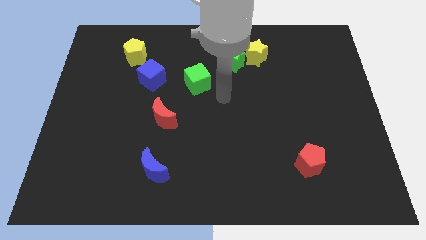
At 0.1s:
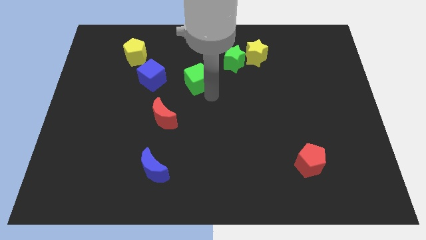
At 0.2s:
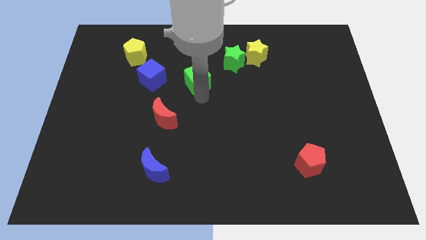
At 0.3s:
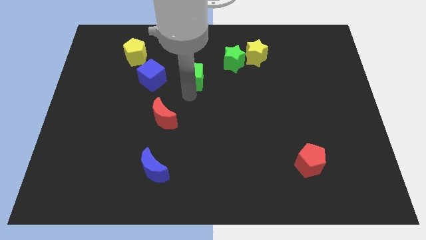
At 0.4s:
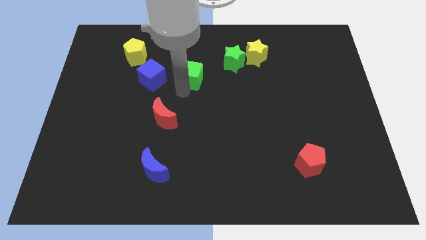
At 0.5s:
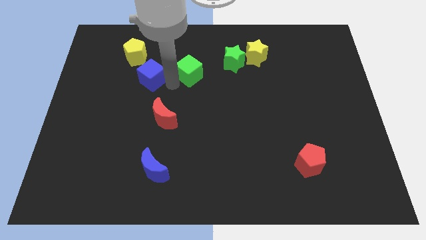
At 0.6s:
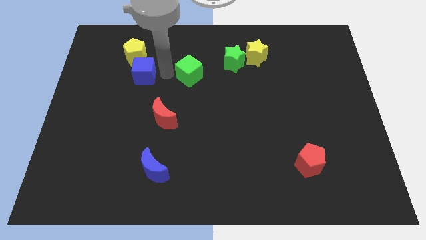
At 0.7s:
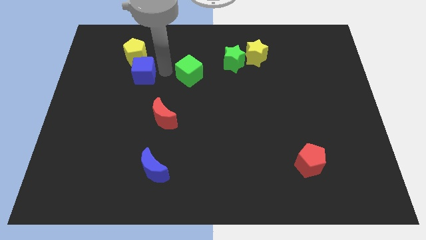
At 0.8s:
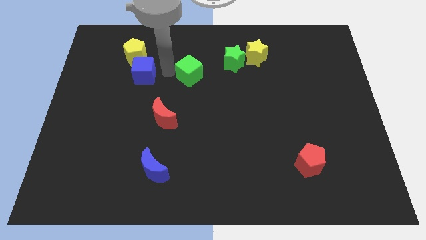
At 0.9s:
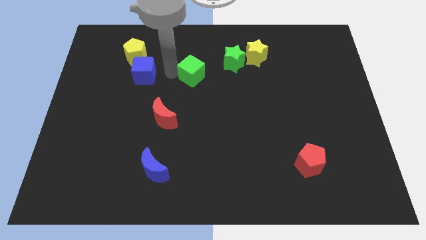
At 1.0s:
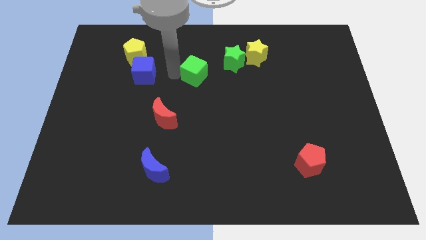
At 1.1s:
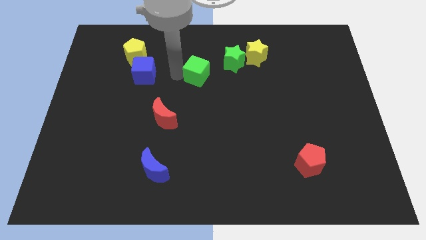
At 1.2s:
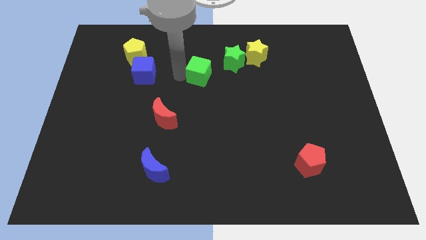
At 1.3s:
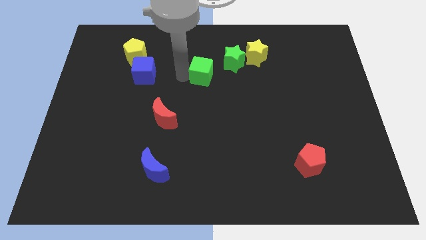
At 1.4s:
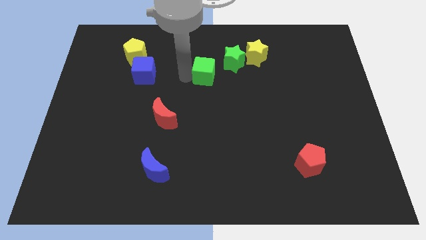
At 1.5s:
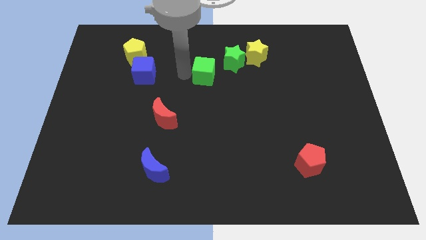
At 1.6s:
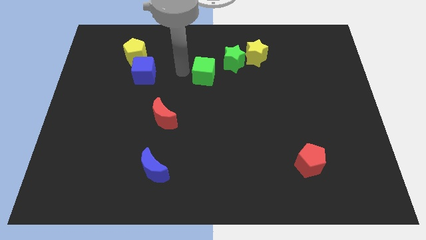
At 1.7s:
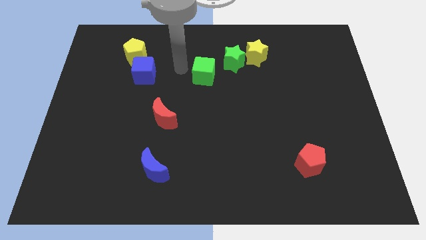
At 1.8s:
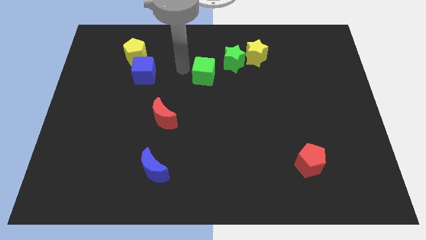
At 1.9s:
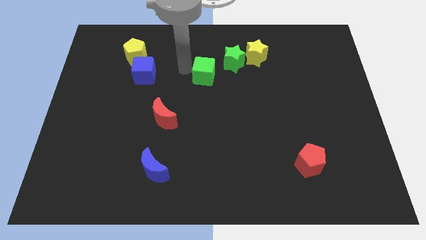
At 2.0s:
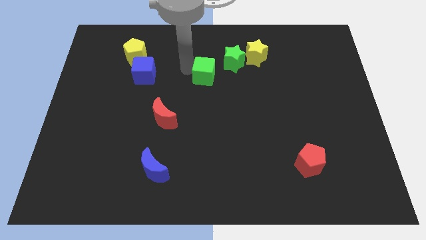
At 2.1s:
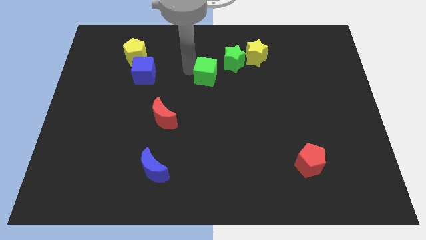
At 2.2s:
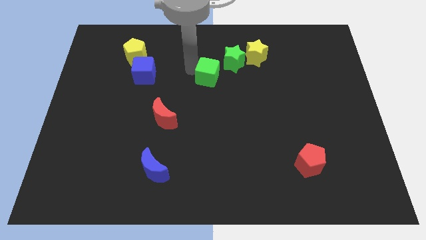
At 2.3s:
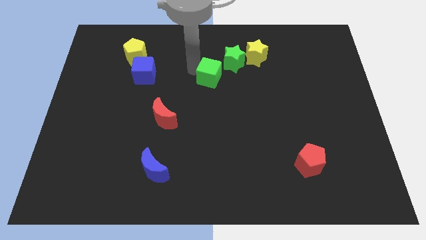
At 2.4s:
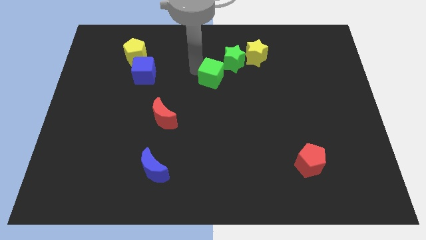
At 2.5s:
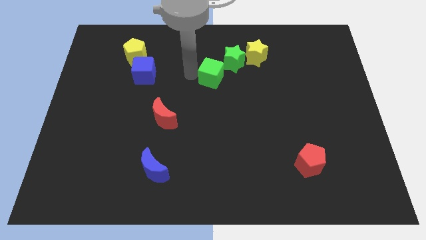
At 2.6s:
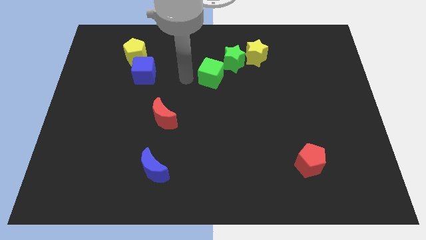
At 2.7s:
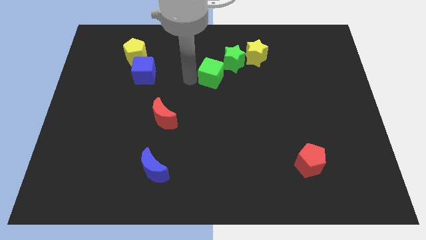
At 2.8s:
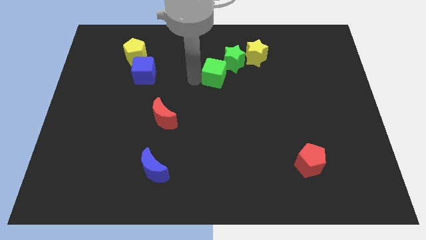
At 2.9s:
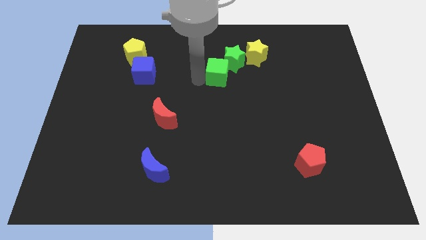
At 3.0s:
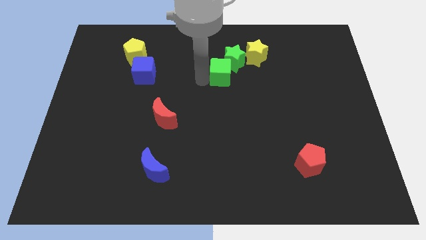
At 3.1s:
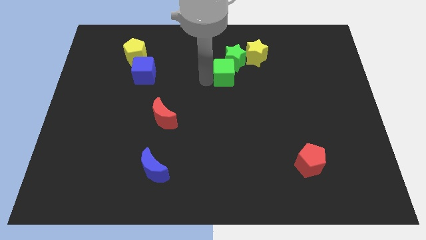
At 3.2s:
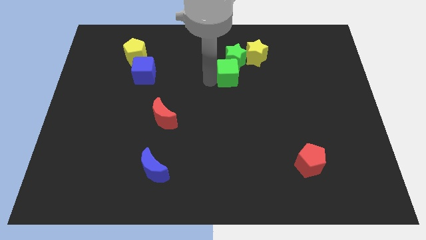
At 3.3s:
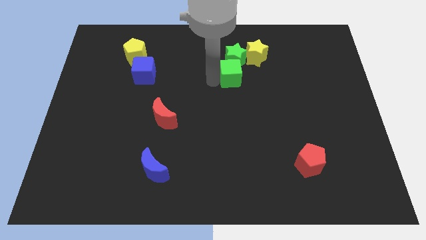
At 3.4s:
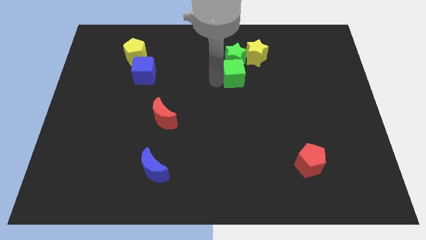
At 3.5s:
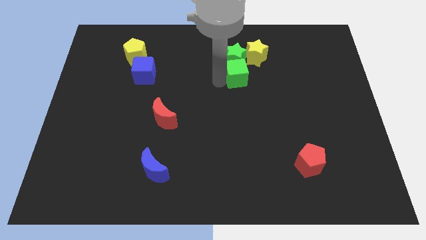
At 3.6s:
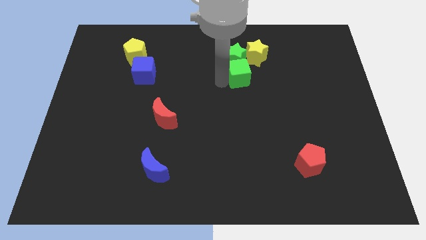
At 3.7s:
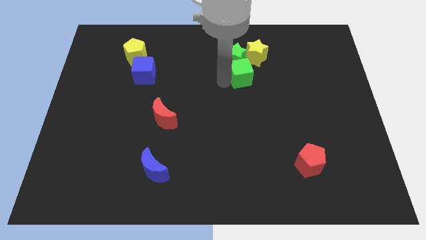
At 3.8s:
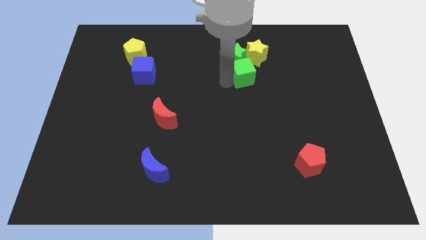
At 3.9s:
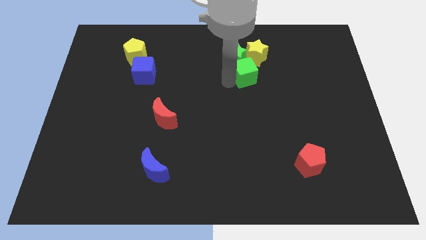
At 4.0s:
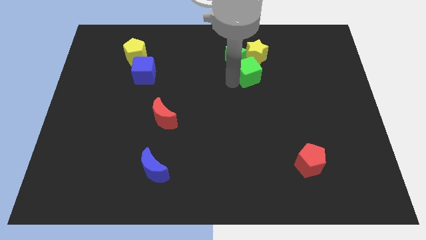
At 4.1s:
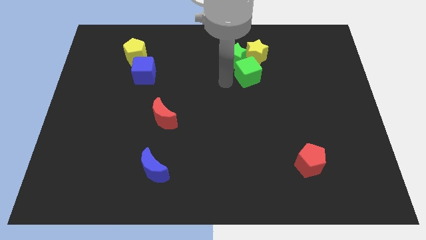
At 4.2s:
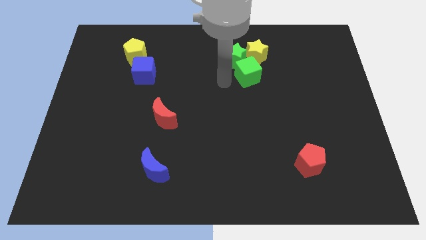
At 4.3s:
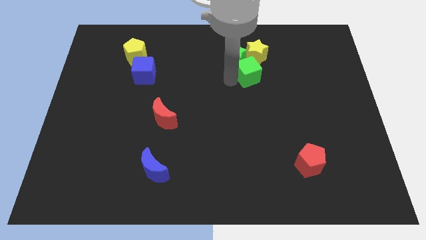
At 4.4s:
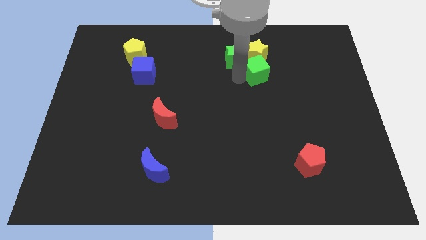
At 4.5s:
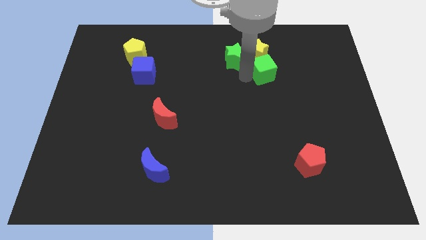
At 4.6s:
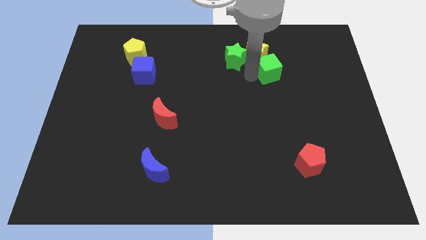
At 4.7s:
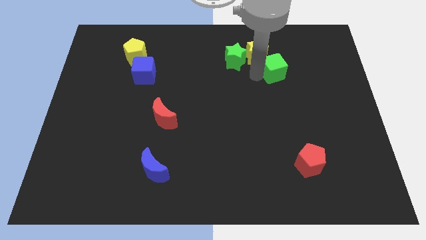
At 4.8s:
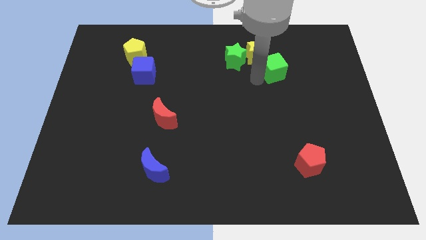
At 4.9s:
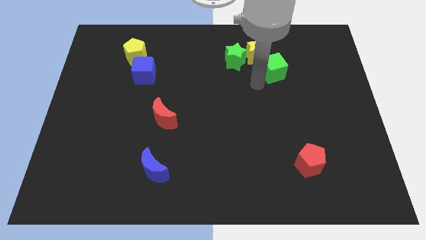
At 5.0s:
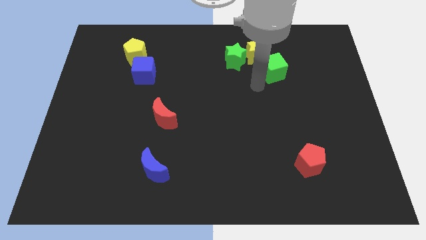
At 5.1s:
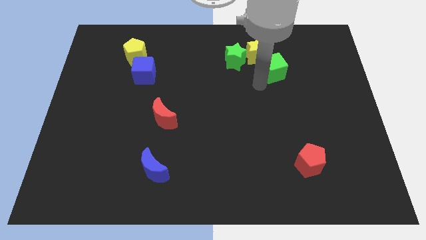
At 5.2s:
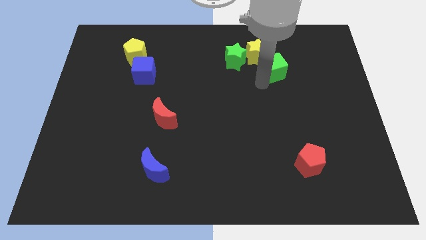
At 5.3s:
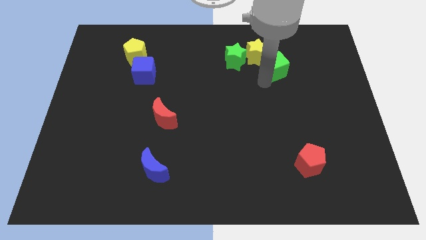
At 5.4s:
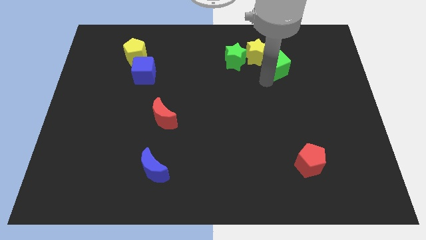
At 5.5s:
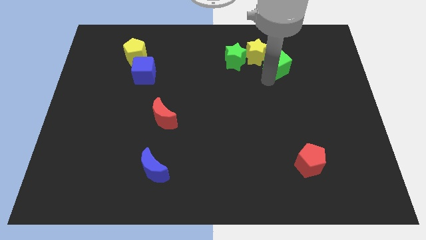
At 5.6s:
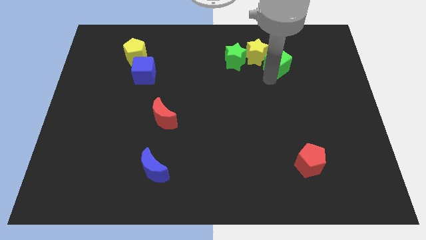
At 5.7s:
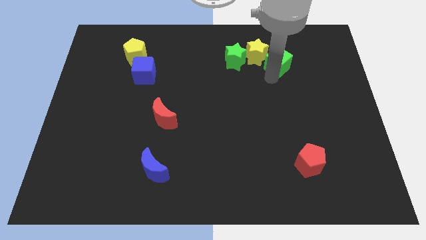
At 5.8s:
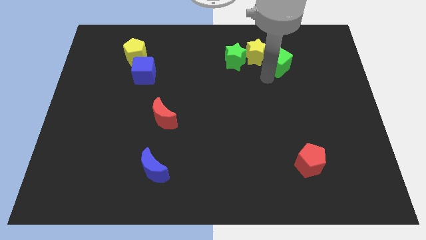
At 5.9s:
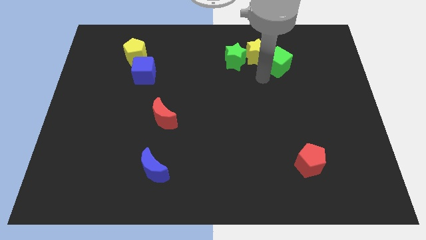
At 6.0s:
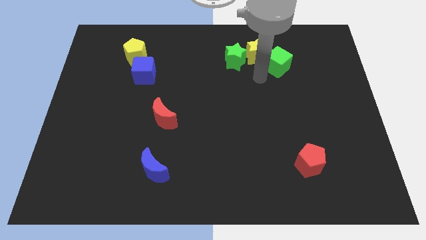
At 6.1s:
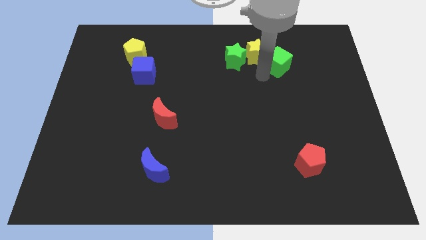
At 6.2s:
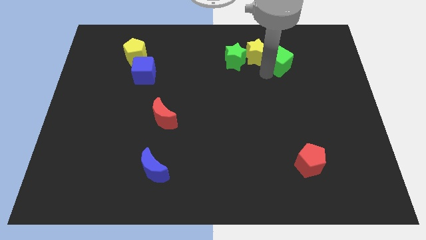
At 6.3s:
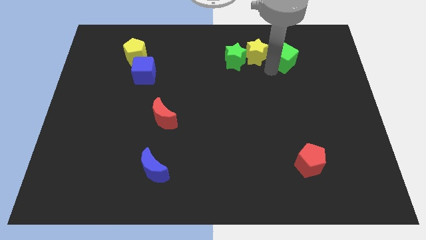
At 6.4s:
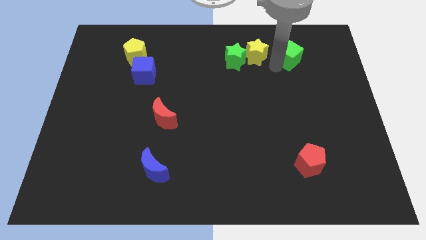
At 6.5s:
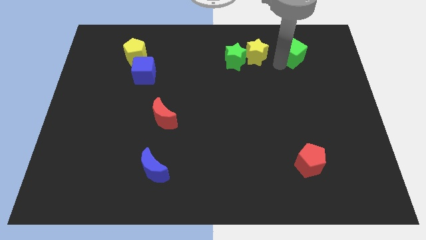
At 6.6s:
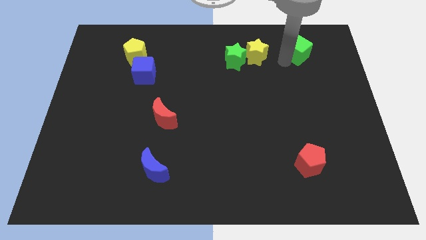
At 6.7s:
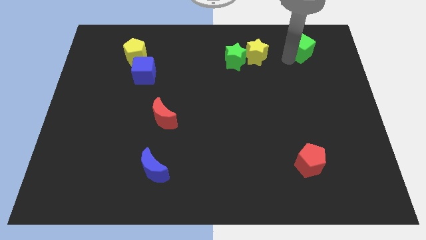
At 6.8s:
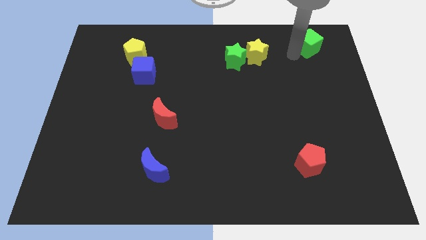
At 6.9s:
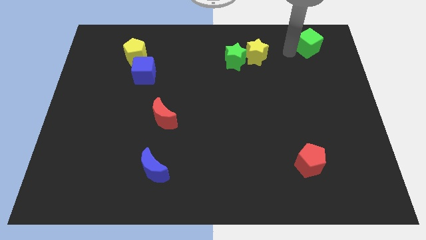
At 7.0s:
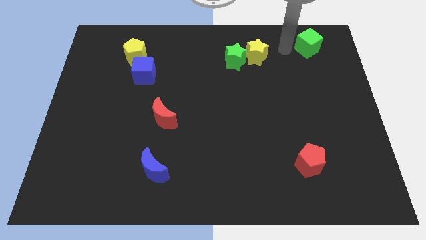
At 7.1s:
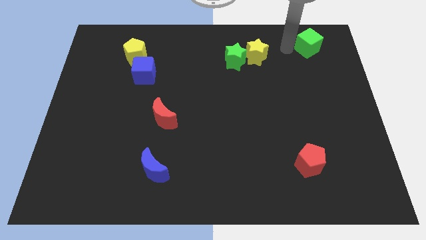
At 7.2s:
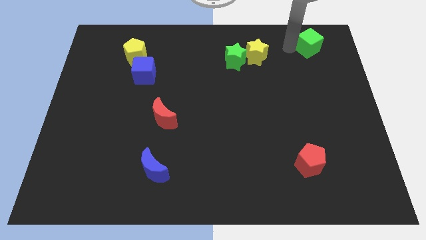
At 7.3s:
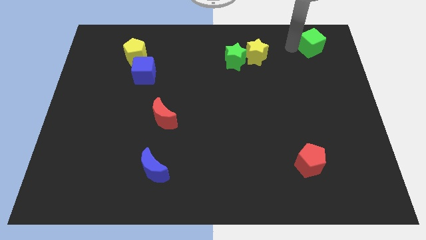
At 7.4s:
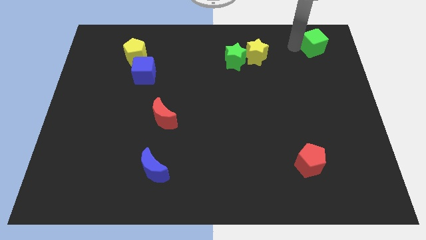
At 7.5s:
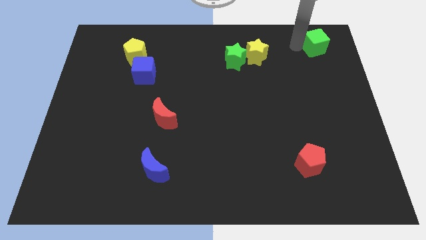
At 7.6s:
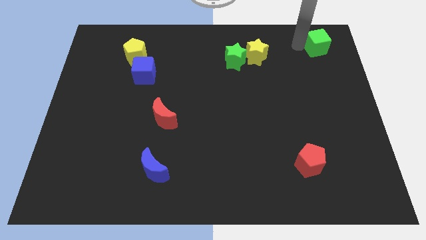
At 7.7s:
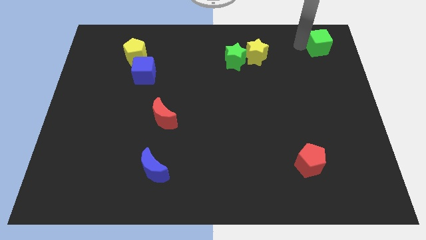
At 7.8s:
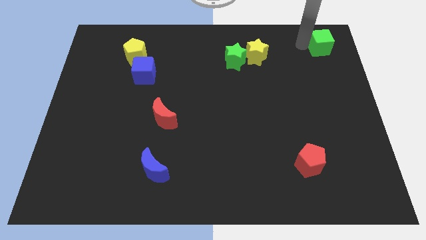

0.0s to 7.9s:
slide the green cube to the top right
